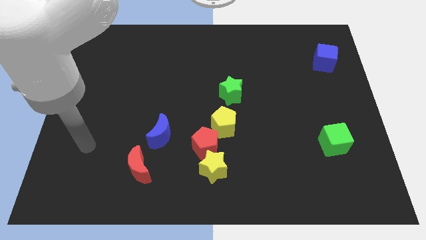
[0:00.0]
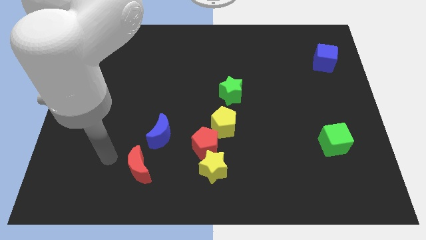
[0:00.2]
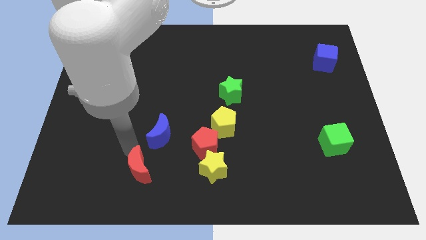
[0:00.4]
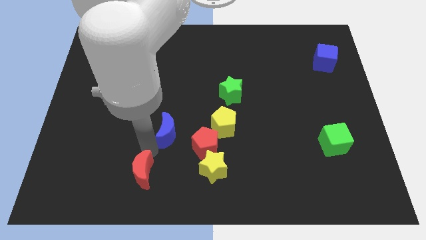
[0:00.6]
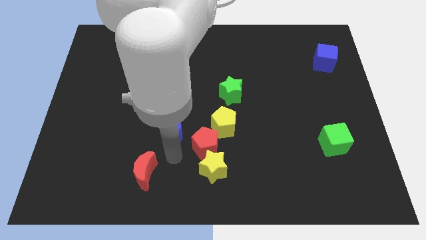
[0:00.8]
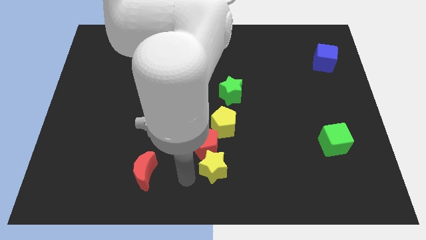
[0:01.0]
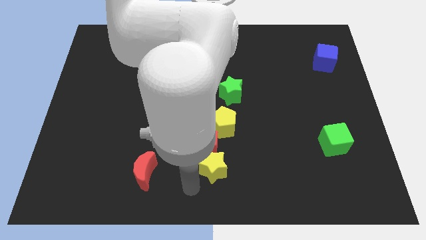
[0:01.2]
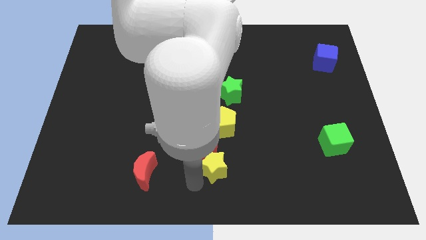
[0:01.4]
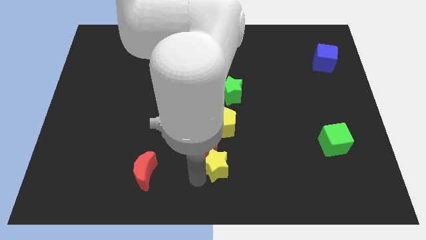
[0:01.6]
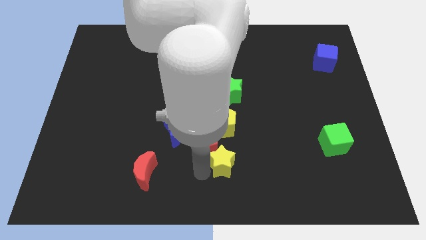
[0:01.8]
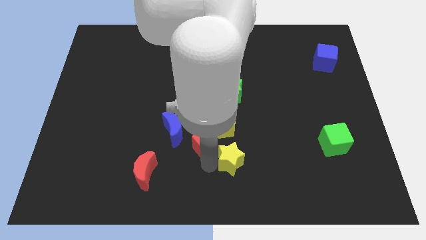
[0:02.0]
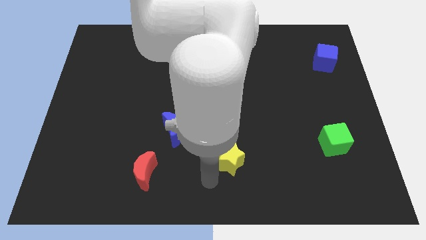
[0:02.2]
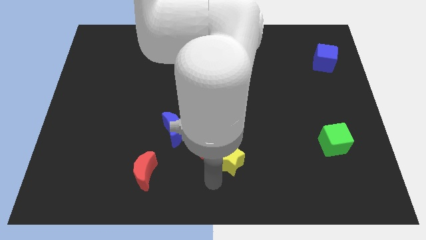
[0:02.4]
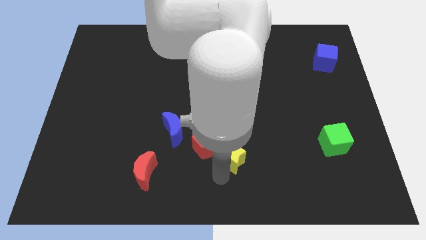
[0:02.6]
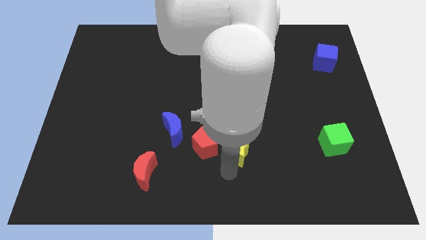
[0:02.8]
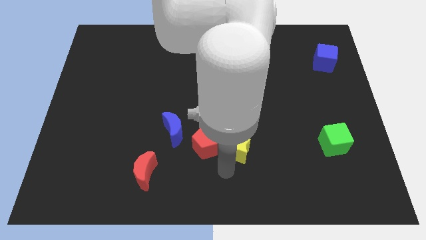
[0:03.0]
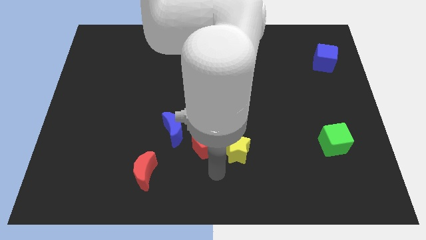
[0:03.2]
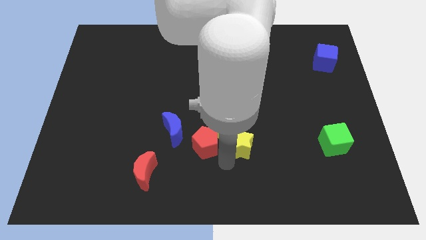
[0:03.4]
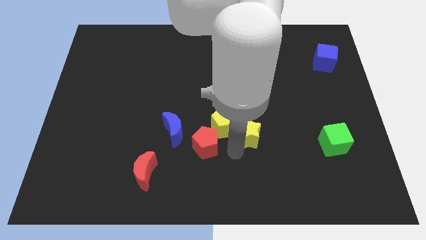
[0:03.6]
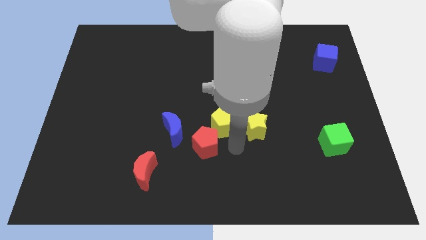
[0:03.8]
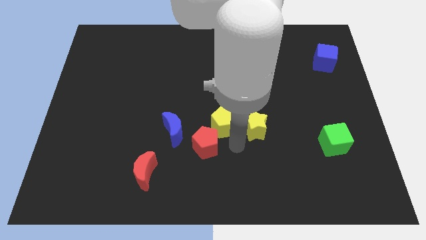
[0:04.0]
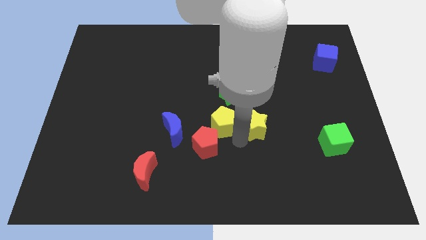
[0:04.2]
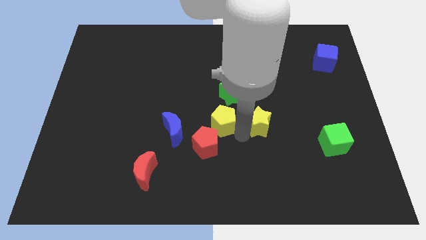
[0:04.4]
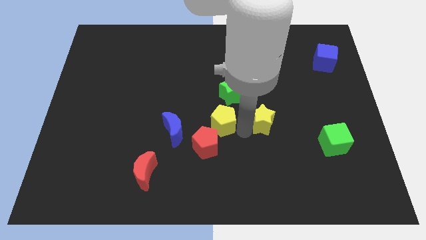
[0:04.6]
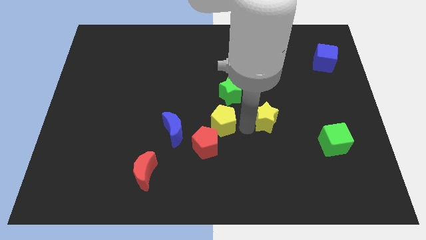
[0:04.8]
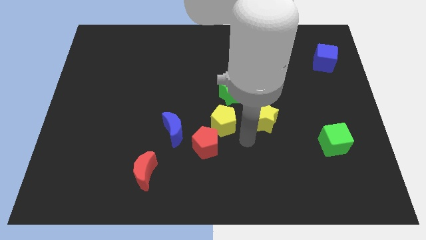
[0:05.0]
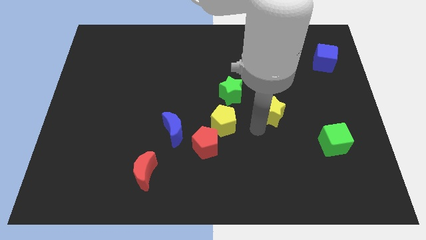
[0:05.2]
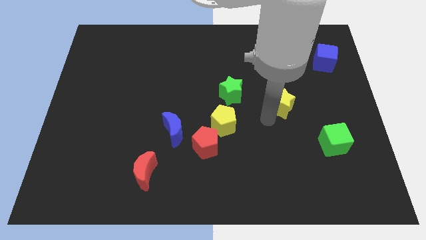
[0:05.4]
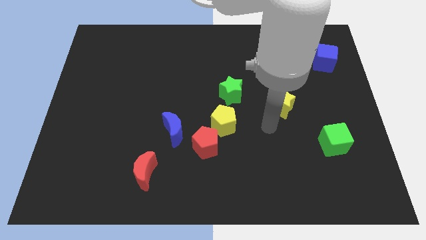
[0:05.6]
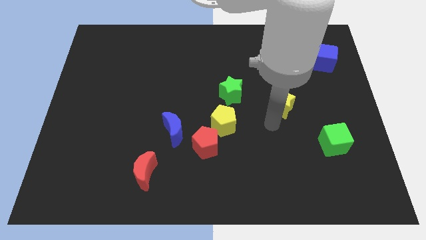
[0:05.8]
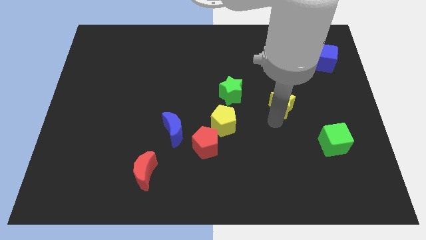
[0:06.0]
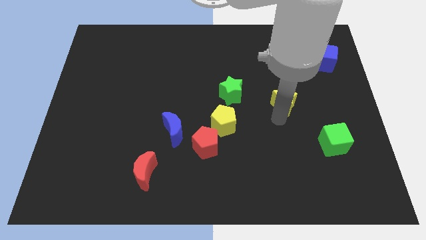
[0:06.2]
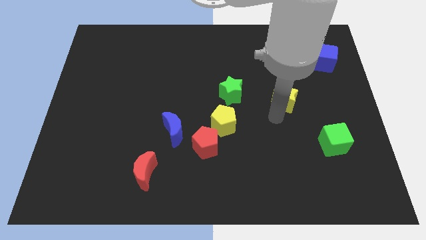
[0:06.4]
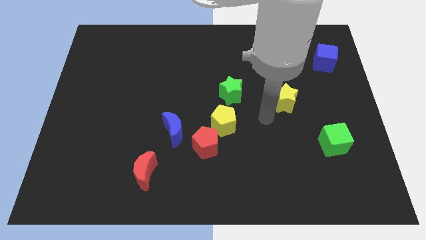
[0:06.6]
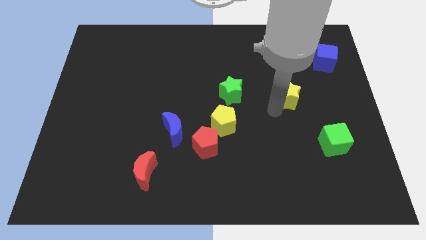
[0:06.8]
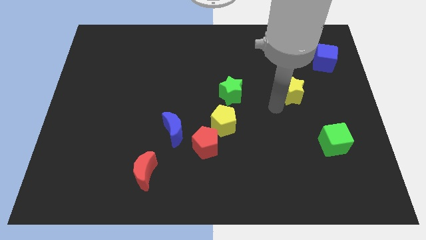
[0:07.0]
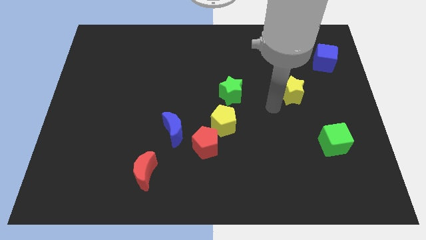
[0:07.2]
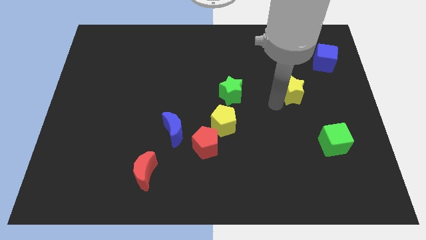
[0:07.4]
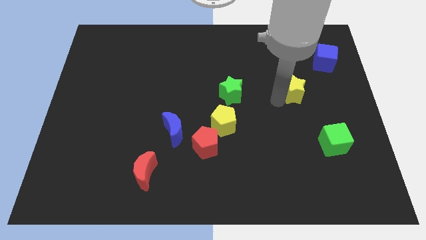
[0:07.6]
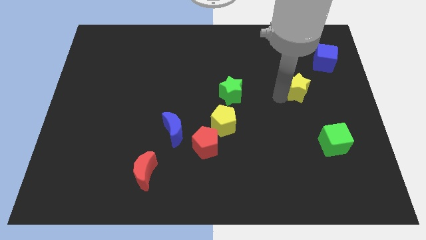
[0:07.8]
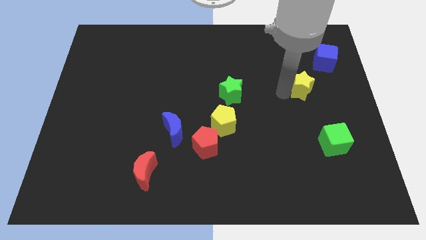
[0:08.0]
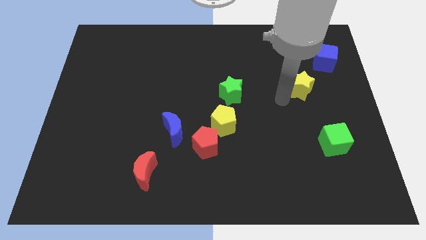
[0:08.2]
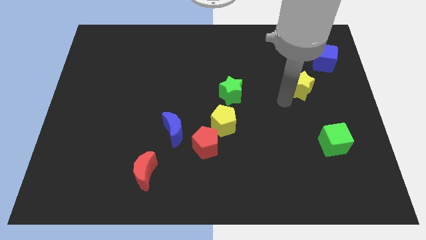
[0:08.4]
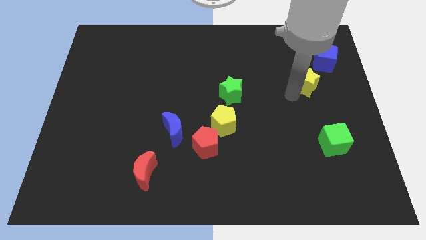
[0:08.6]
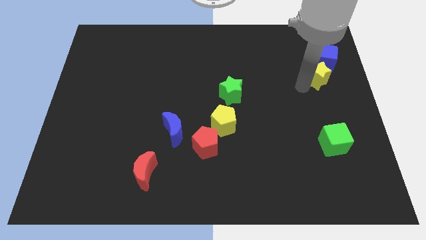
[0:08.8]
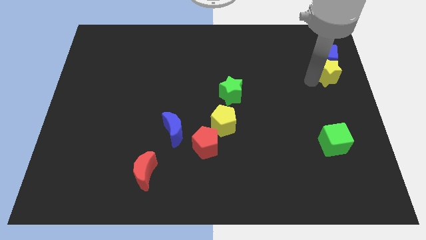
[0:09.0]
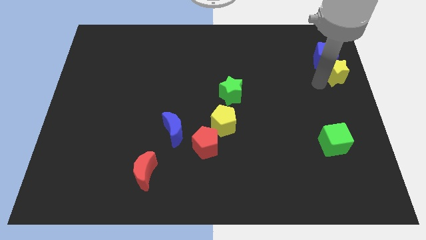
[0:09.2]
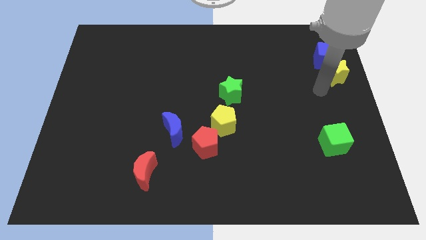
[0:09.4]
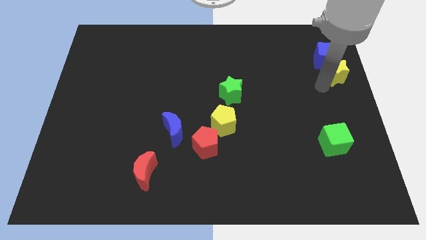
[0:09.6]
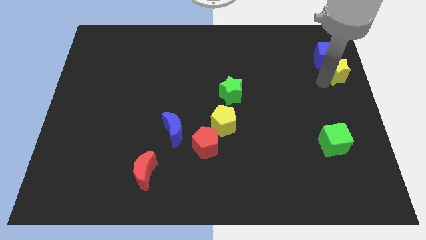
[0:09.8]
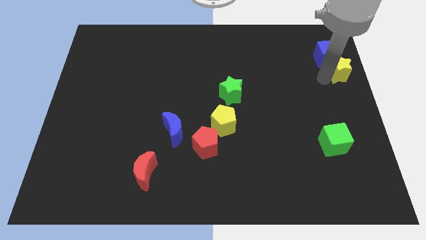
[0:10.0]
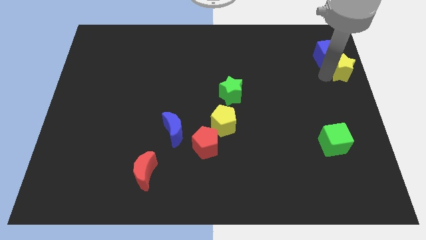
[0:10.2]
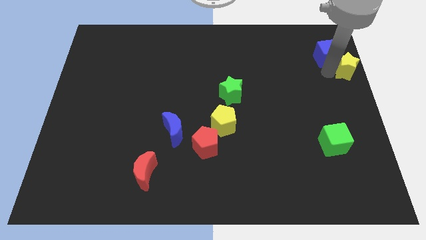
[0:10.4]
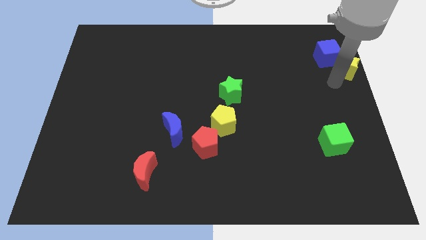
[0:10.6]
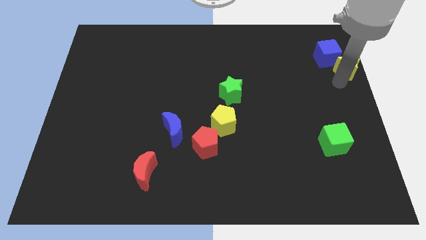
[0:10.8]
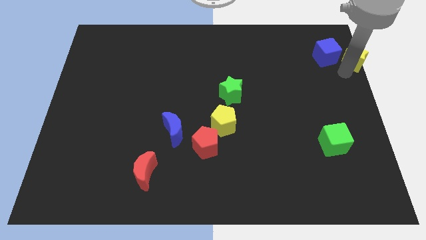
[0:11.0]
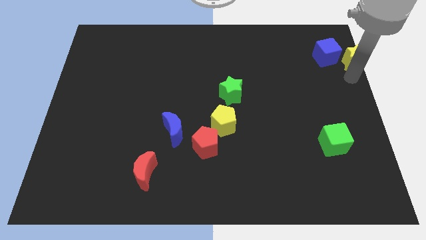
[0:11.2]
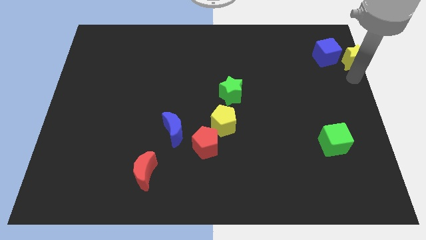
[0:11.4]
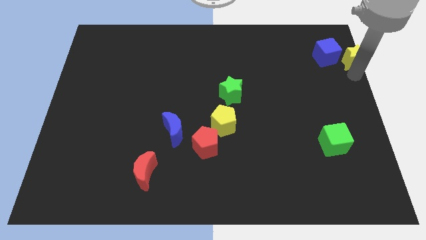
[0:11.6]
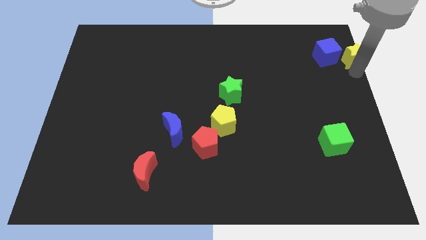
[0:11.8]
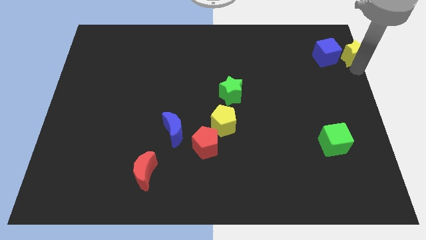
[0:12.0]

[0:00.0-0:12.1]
move the yellow star to the upper right corner

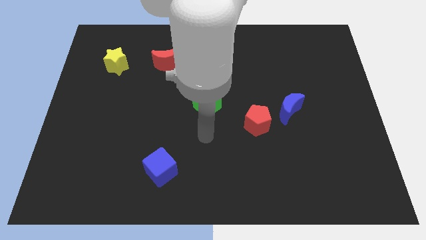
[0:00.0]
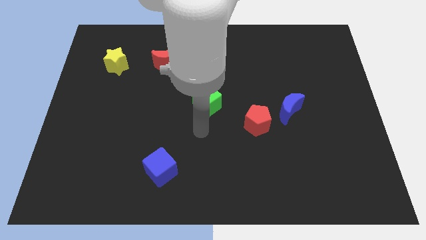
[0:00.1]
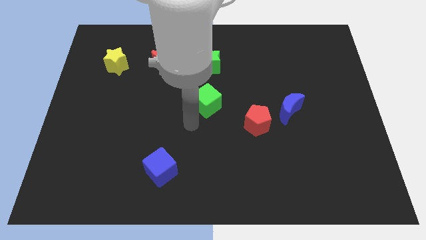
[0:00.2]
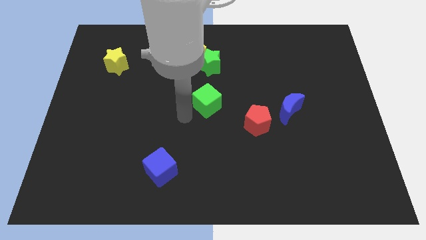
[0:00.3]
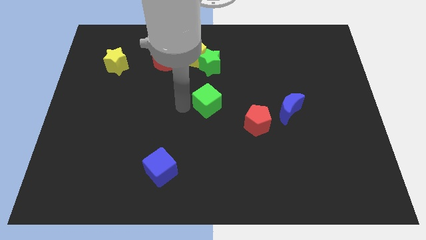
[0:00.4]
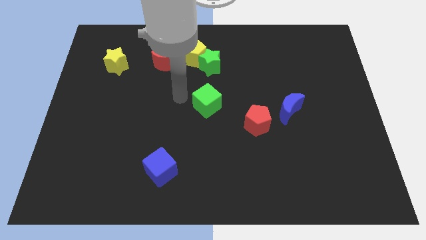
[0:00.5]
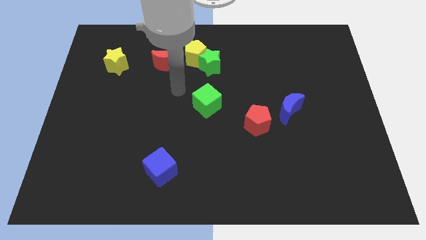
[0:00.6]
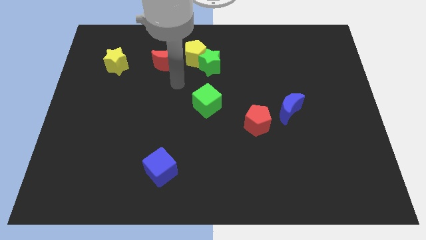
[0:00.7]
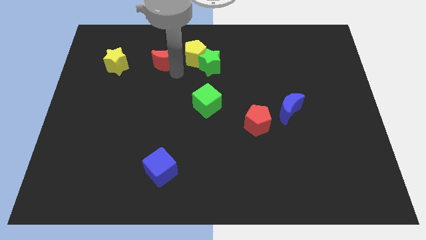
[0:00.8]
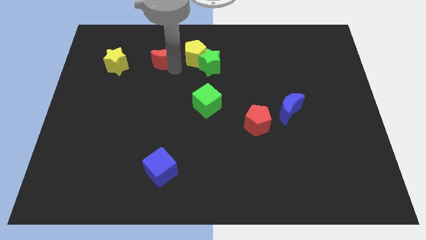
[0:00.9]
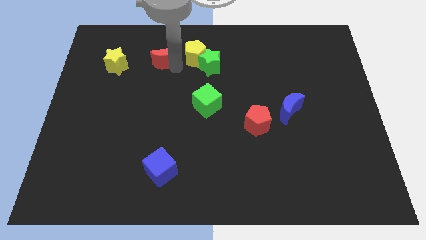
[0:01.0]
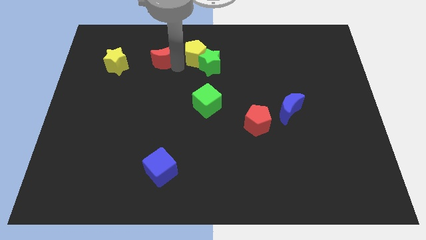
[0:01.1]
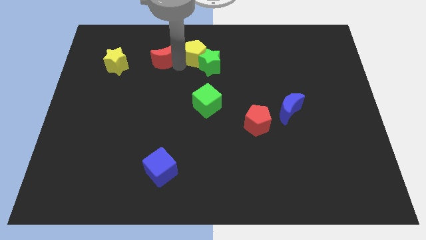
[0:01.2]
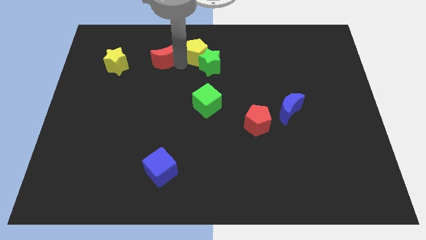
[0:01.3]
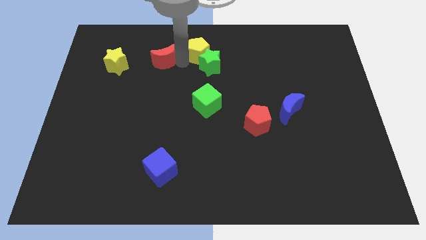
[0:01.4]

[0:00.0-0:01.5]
move the yellow pentagon to the top side
